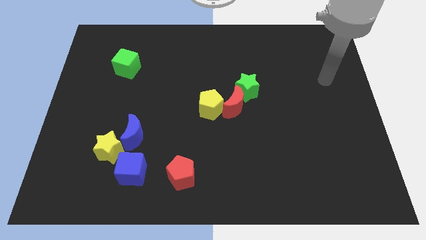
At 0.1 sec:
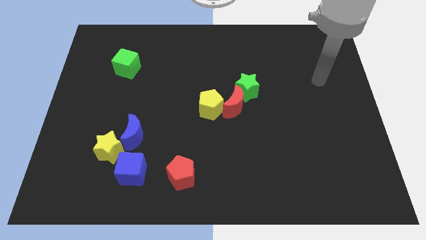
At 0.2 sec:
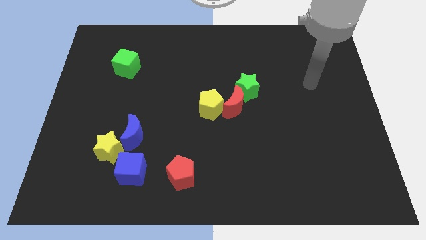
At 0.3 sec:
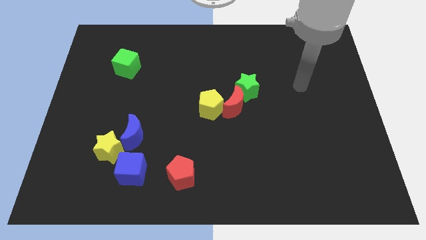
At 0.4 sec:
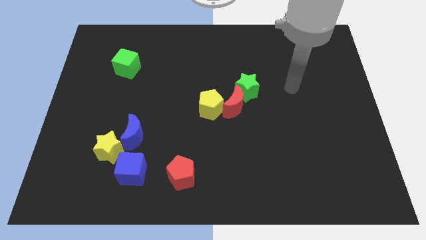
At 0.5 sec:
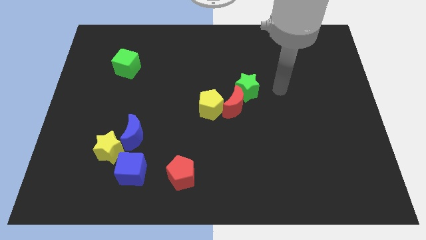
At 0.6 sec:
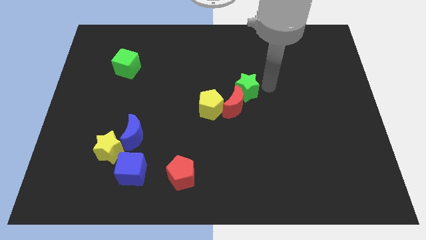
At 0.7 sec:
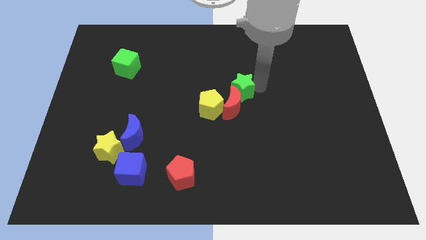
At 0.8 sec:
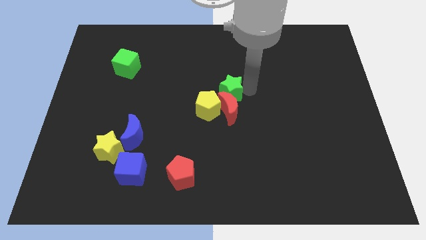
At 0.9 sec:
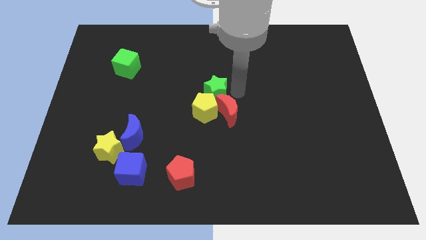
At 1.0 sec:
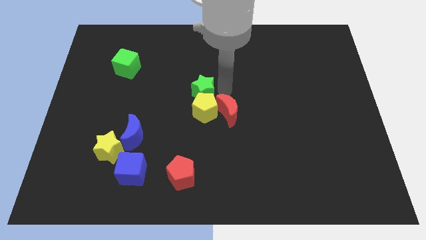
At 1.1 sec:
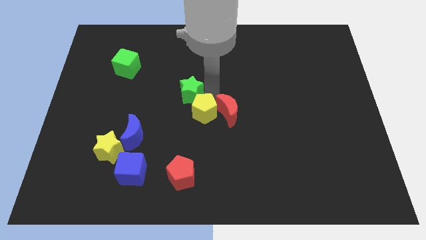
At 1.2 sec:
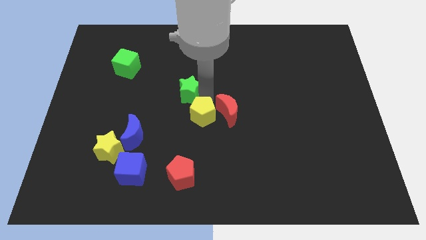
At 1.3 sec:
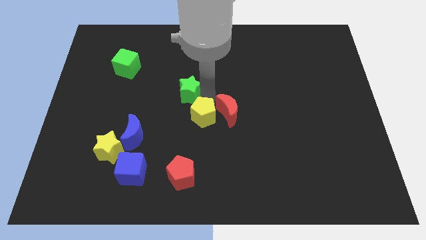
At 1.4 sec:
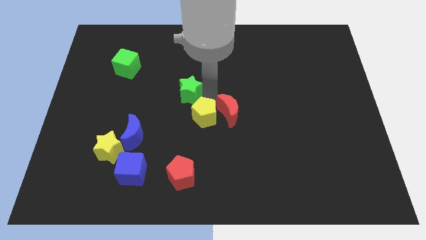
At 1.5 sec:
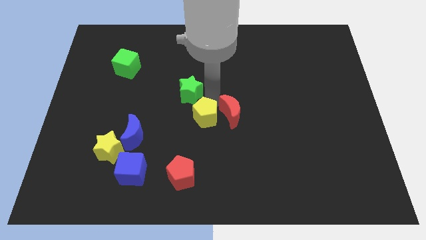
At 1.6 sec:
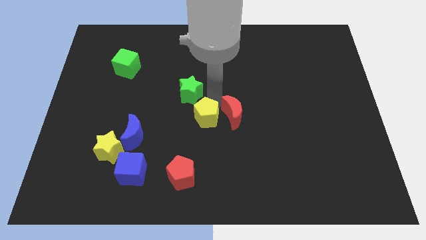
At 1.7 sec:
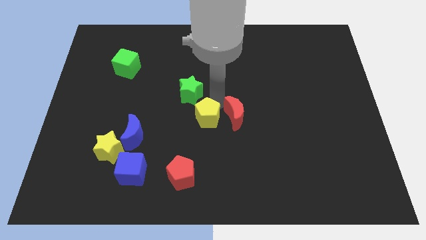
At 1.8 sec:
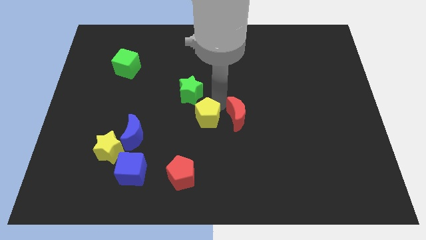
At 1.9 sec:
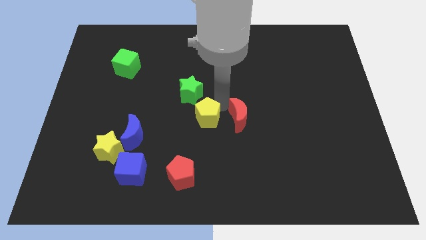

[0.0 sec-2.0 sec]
move the red moon away from the yellow pentagon and green star

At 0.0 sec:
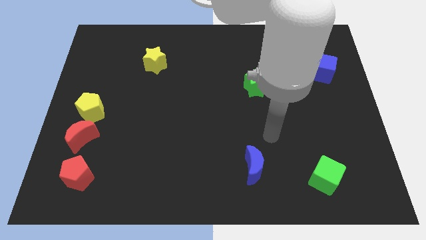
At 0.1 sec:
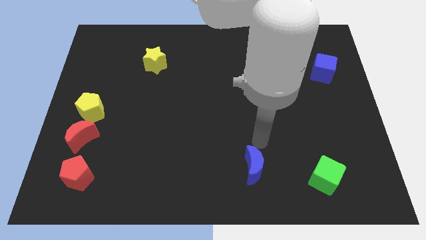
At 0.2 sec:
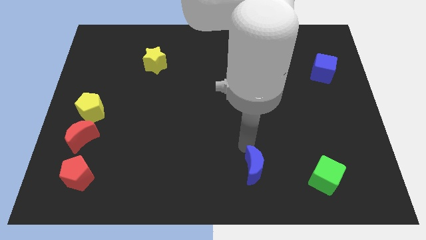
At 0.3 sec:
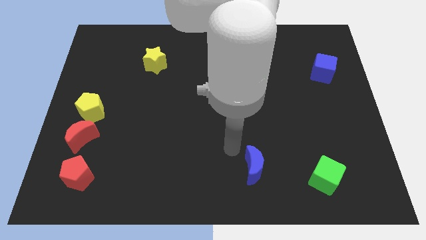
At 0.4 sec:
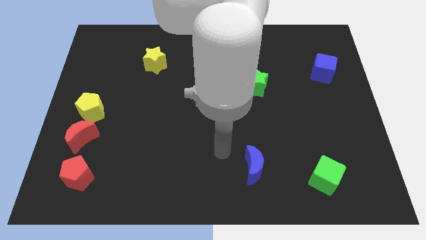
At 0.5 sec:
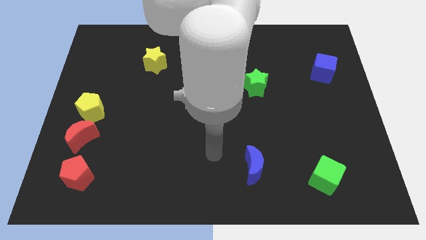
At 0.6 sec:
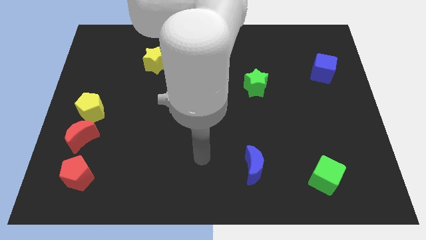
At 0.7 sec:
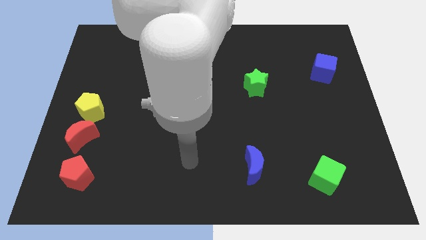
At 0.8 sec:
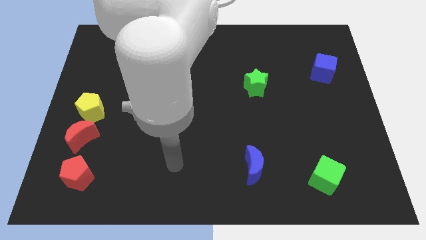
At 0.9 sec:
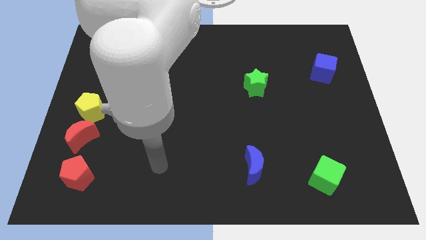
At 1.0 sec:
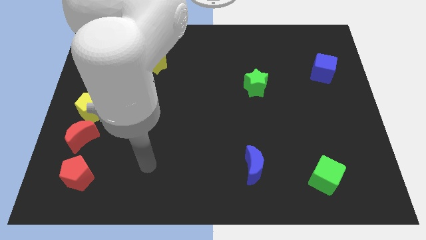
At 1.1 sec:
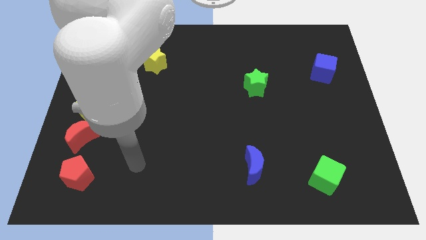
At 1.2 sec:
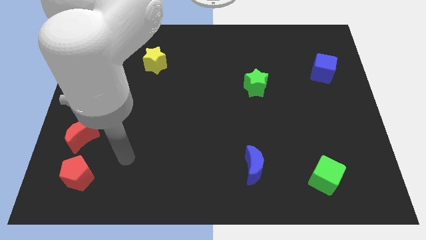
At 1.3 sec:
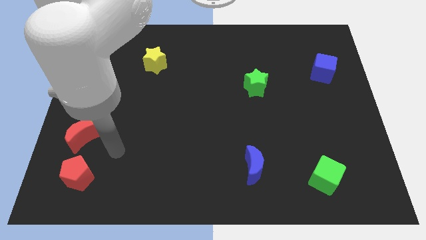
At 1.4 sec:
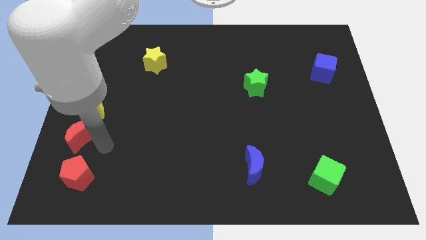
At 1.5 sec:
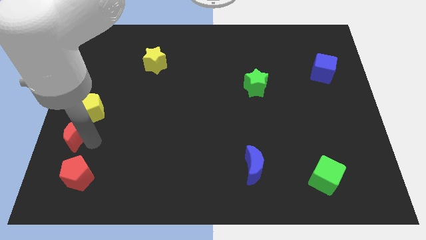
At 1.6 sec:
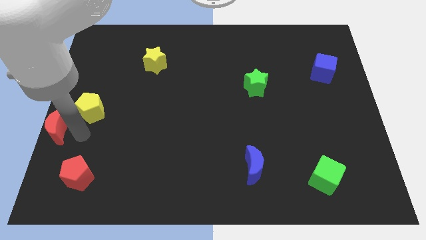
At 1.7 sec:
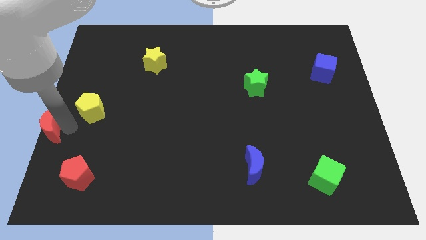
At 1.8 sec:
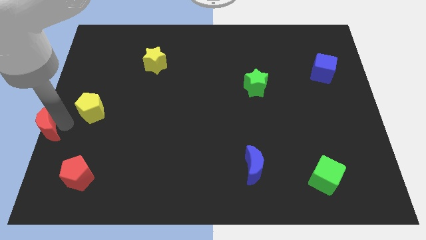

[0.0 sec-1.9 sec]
separate the yellow pentagon from the red moon

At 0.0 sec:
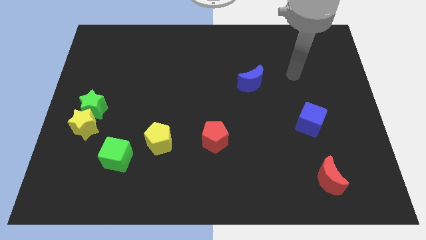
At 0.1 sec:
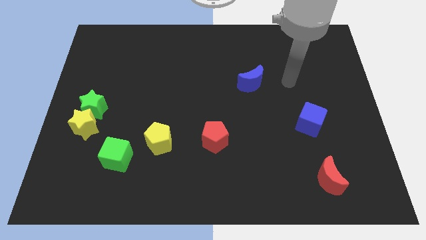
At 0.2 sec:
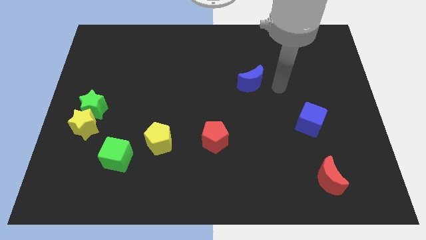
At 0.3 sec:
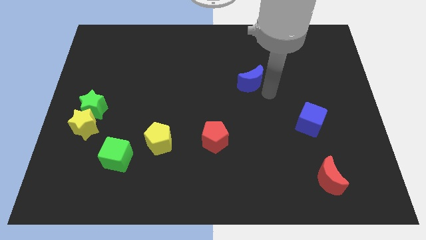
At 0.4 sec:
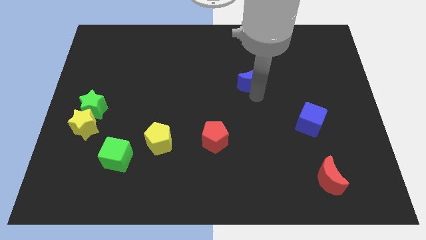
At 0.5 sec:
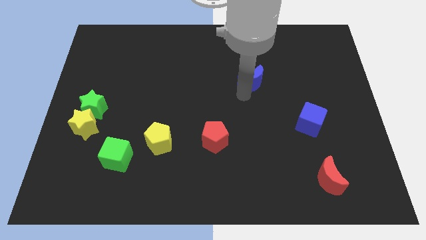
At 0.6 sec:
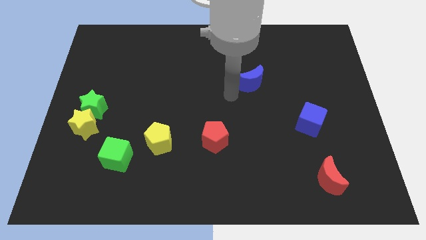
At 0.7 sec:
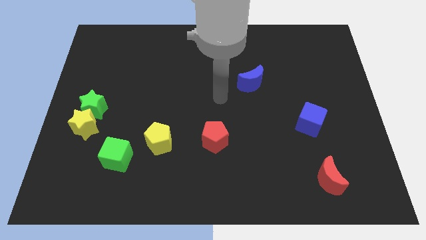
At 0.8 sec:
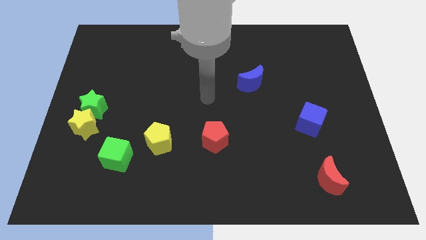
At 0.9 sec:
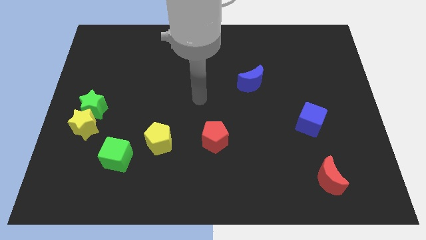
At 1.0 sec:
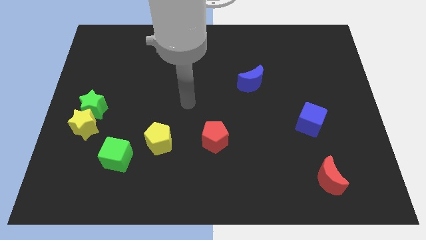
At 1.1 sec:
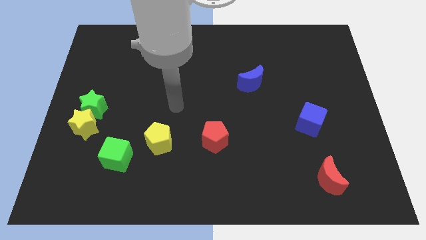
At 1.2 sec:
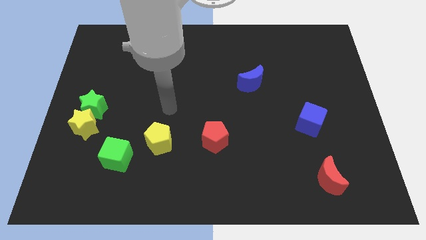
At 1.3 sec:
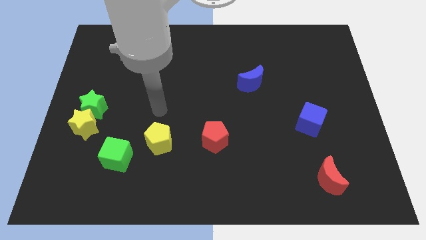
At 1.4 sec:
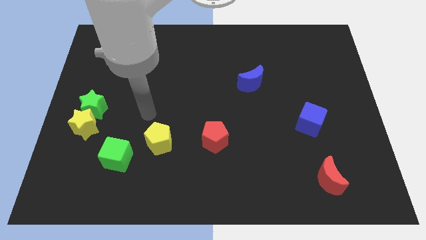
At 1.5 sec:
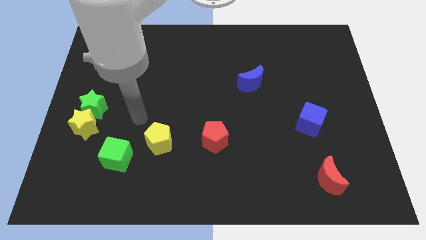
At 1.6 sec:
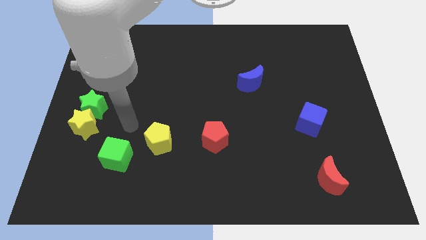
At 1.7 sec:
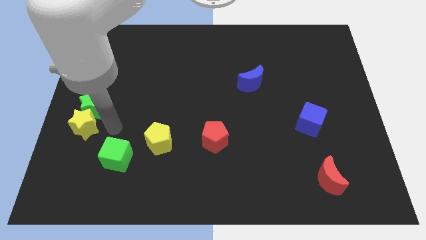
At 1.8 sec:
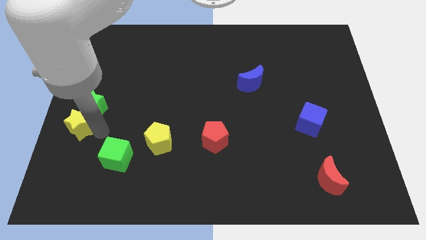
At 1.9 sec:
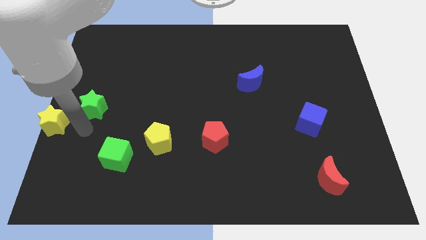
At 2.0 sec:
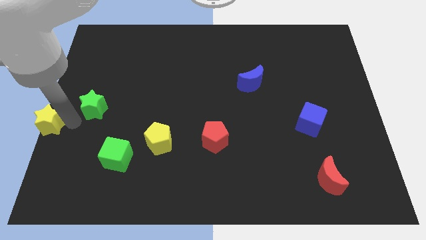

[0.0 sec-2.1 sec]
move the green star away from the yellow star

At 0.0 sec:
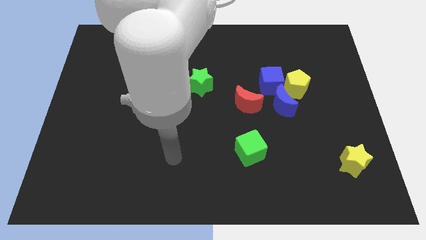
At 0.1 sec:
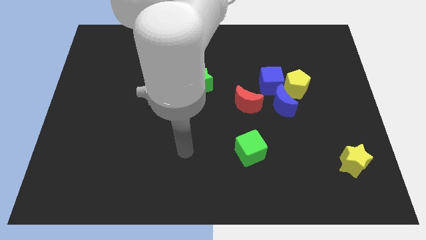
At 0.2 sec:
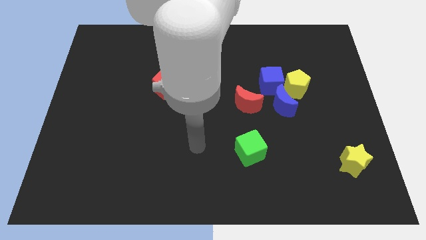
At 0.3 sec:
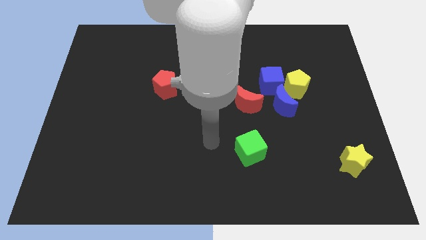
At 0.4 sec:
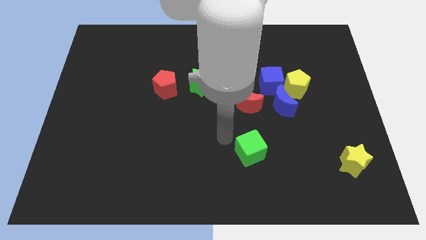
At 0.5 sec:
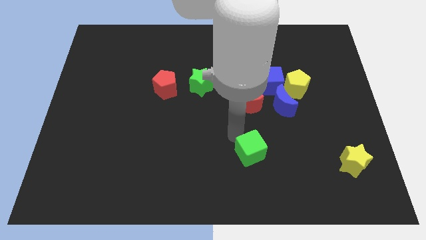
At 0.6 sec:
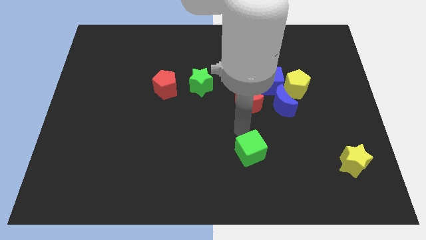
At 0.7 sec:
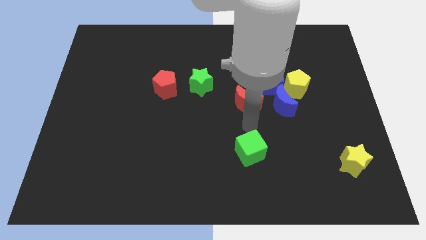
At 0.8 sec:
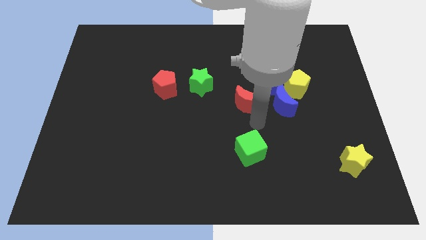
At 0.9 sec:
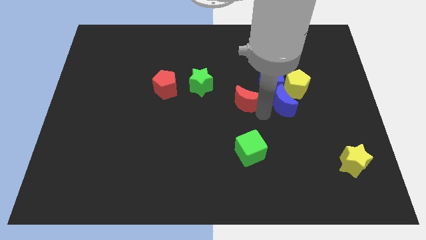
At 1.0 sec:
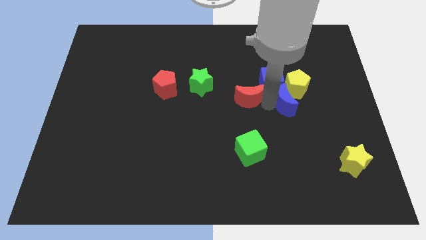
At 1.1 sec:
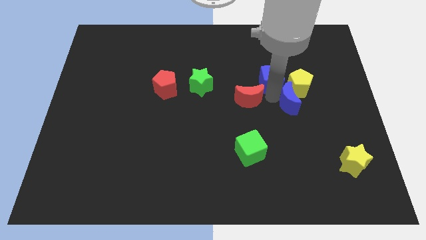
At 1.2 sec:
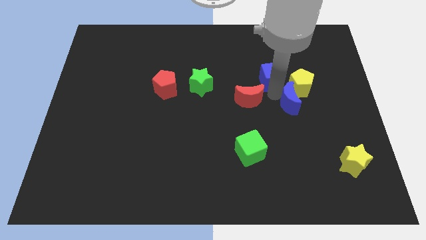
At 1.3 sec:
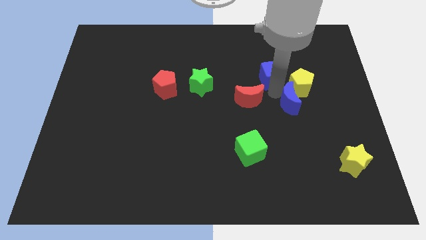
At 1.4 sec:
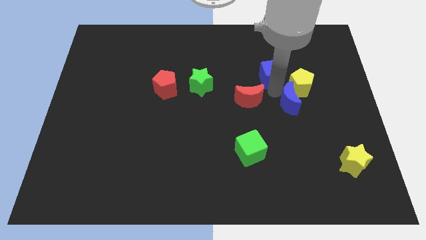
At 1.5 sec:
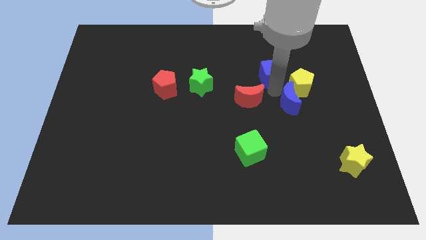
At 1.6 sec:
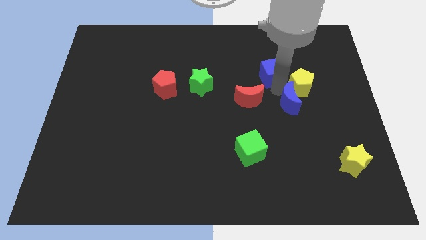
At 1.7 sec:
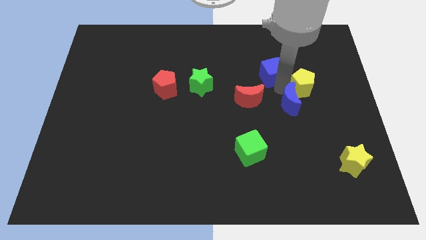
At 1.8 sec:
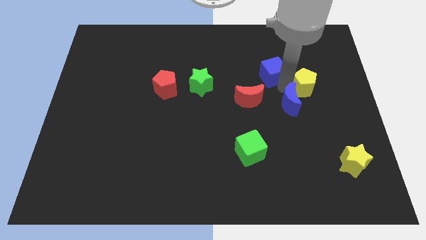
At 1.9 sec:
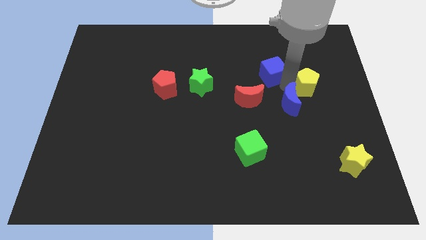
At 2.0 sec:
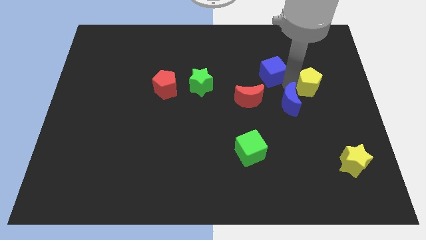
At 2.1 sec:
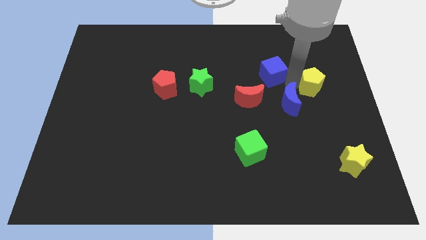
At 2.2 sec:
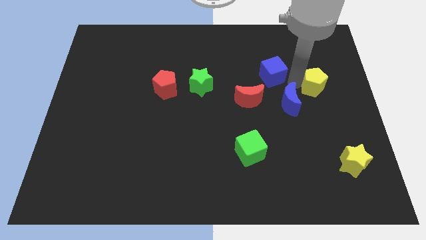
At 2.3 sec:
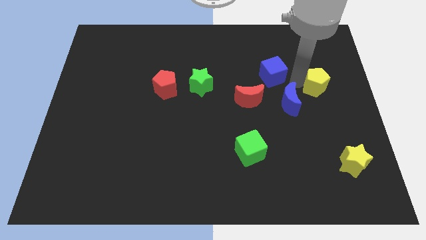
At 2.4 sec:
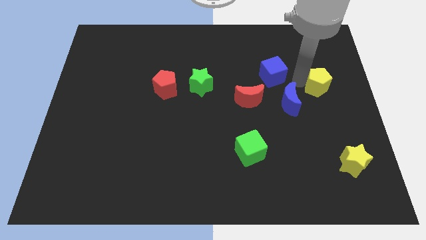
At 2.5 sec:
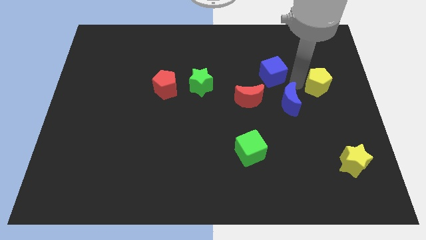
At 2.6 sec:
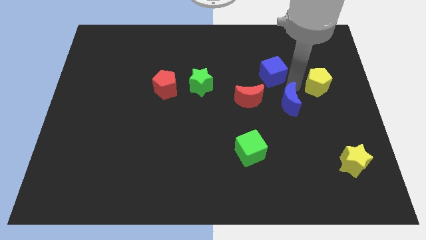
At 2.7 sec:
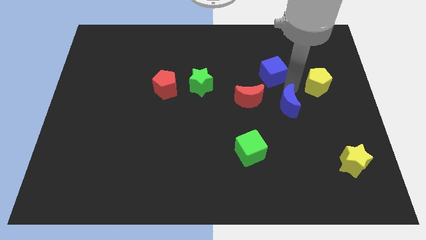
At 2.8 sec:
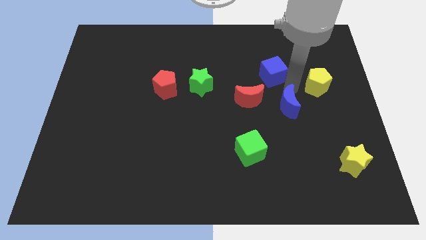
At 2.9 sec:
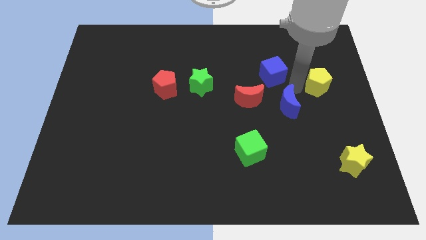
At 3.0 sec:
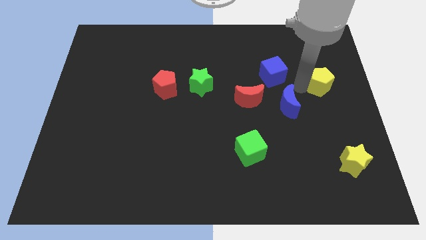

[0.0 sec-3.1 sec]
separate the yellow pentagon from the blue cube and blue moon

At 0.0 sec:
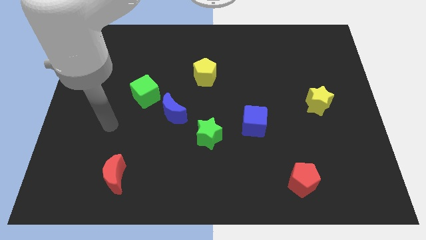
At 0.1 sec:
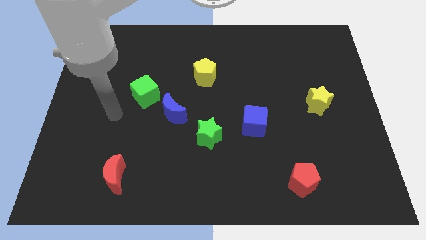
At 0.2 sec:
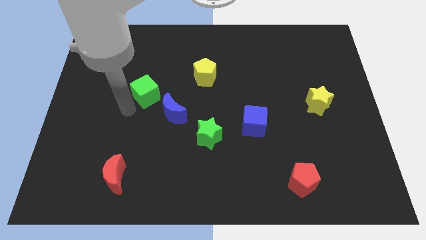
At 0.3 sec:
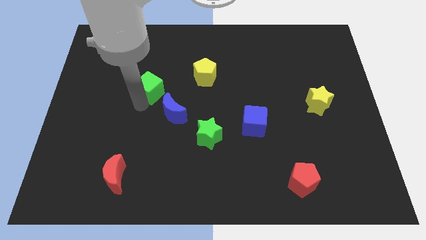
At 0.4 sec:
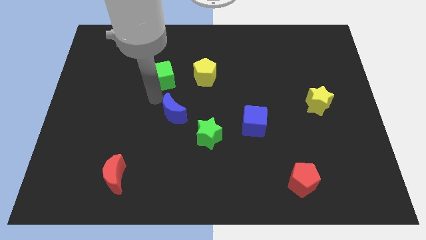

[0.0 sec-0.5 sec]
pull the blue moon apart from the green cube
